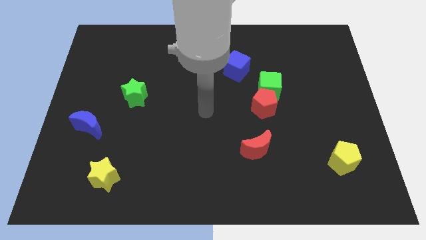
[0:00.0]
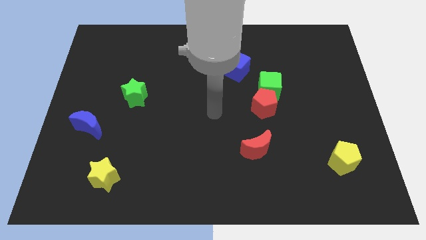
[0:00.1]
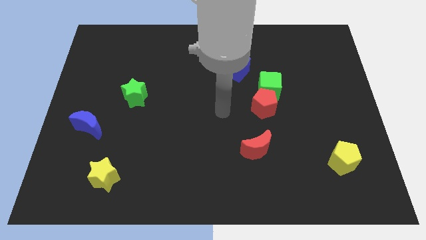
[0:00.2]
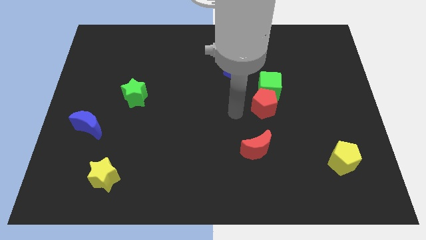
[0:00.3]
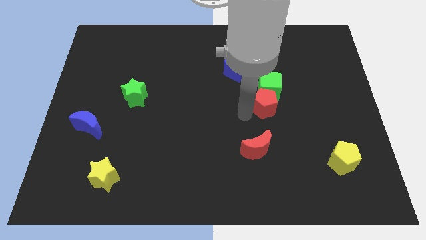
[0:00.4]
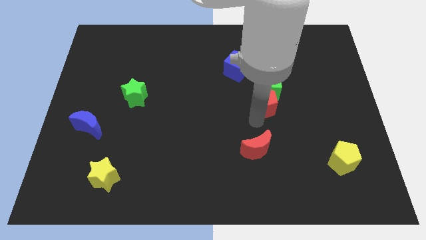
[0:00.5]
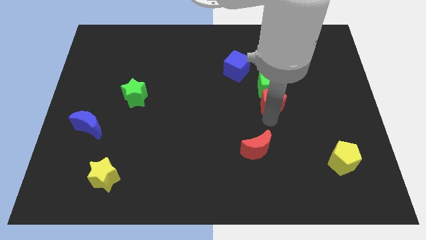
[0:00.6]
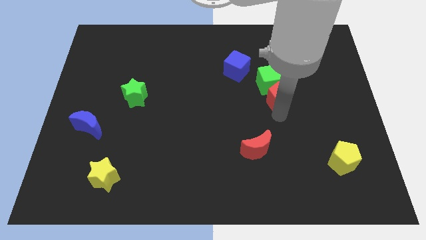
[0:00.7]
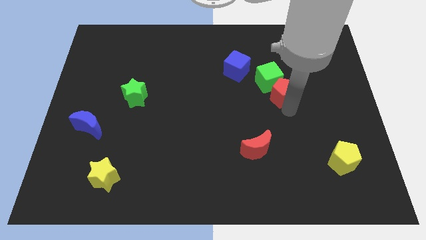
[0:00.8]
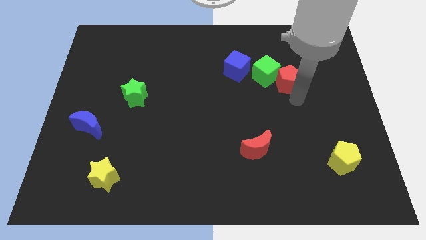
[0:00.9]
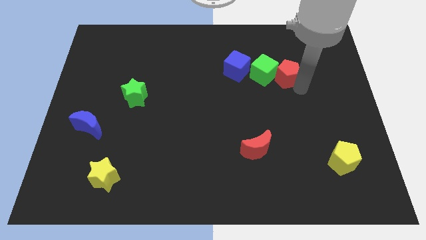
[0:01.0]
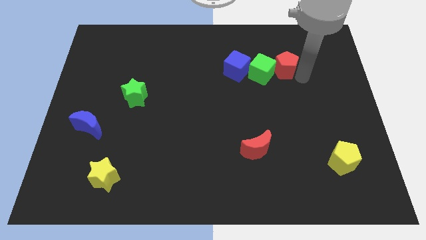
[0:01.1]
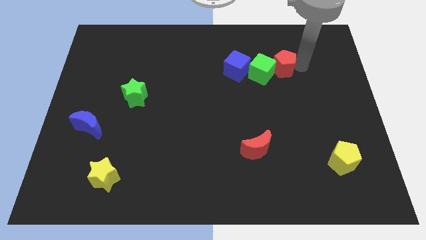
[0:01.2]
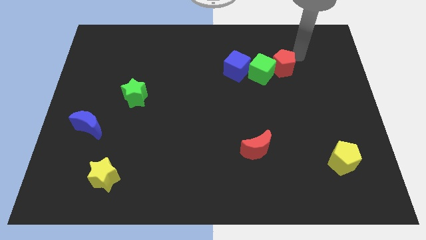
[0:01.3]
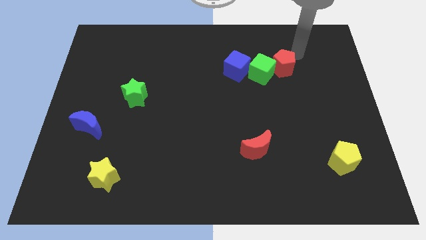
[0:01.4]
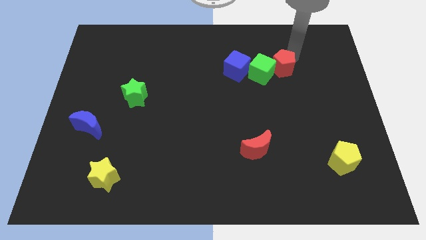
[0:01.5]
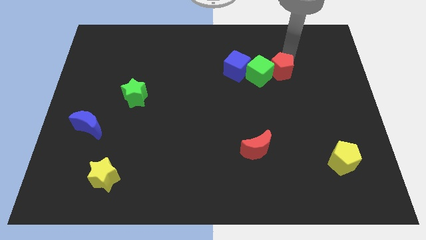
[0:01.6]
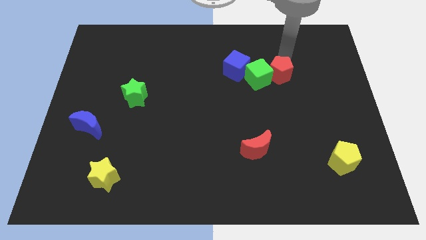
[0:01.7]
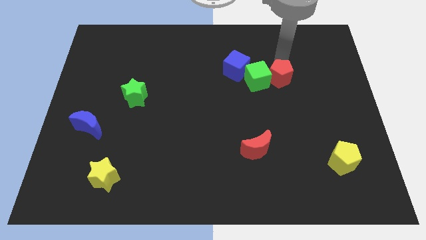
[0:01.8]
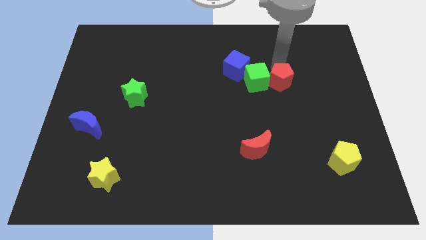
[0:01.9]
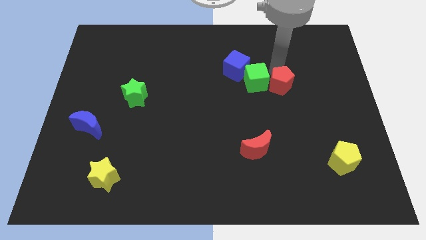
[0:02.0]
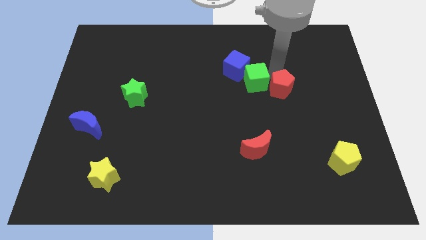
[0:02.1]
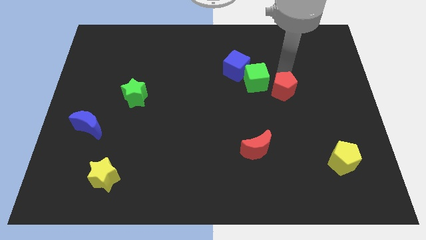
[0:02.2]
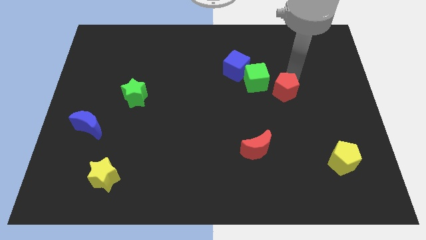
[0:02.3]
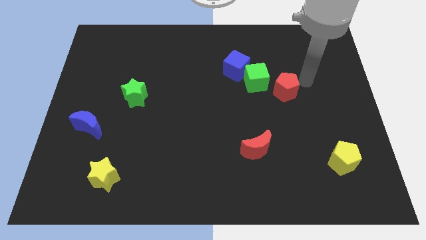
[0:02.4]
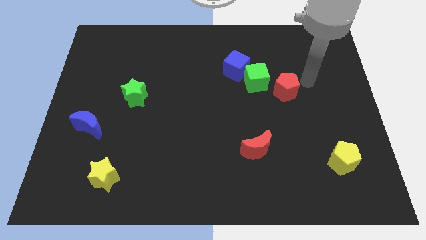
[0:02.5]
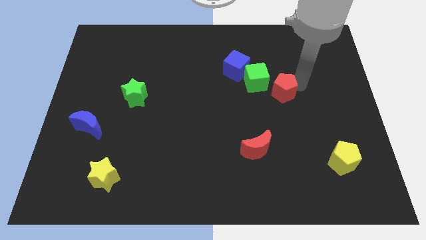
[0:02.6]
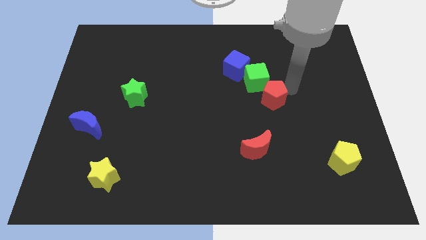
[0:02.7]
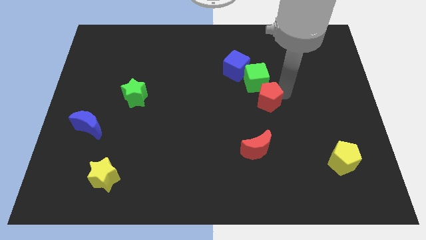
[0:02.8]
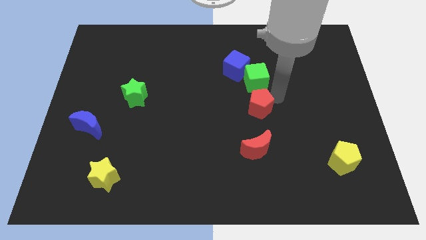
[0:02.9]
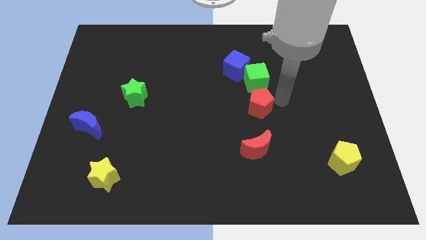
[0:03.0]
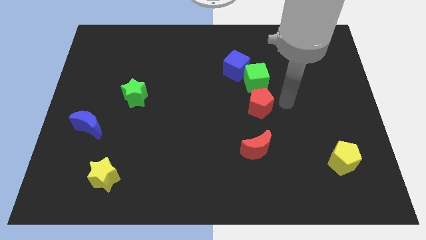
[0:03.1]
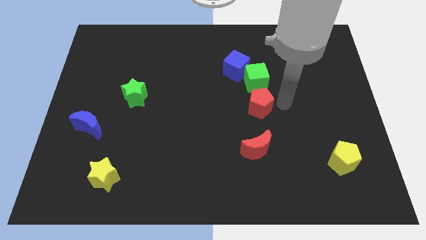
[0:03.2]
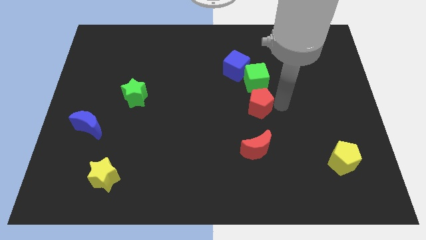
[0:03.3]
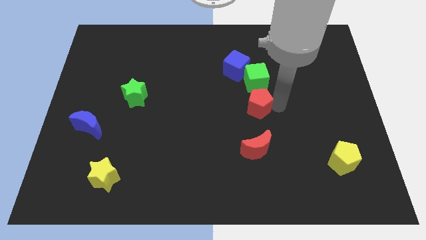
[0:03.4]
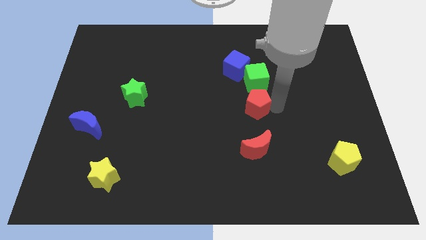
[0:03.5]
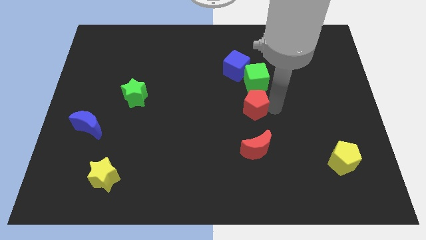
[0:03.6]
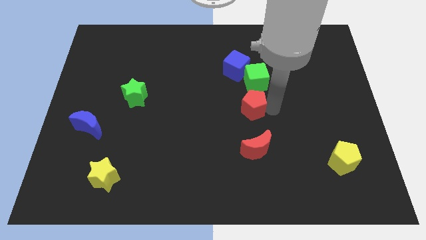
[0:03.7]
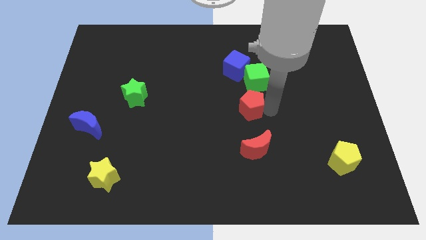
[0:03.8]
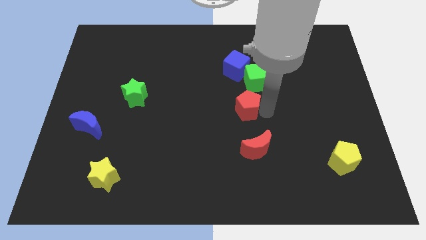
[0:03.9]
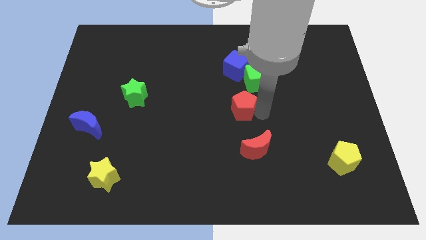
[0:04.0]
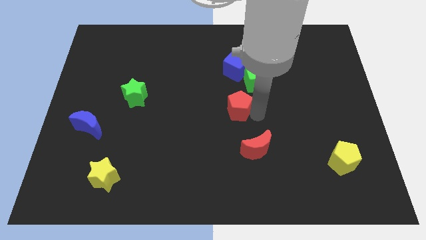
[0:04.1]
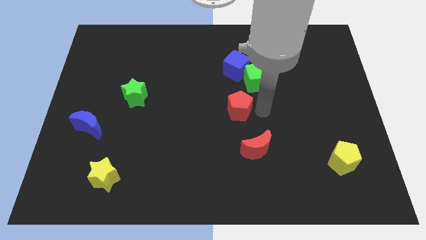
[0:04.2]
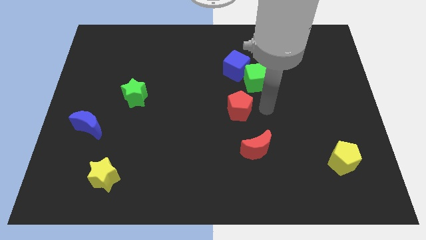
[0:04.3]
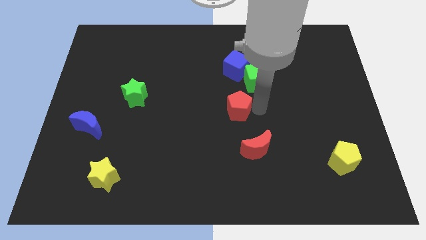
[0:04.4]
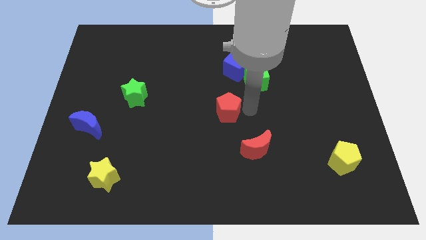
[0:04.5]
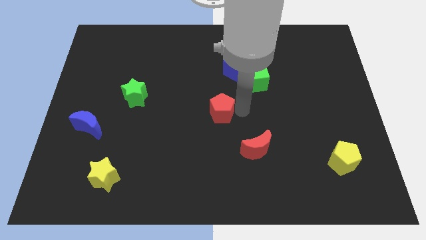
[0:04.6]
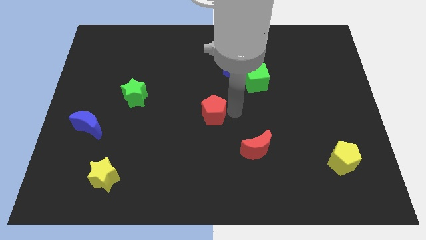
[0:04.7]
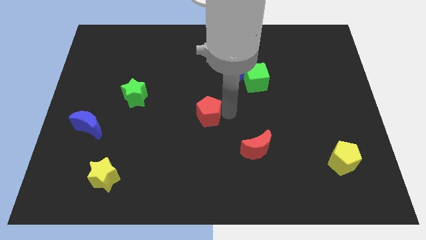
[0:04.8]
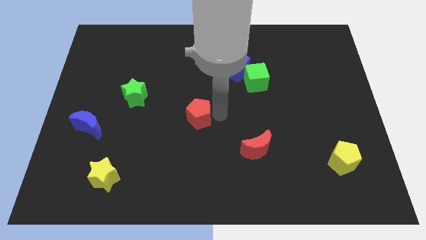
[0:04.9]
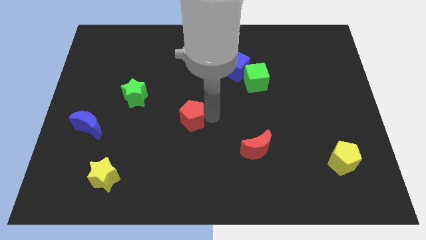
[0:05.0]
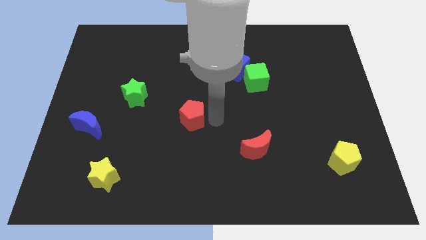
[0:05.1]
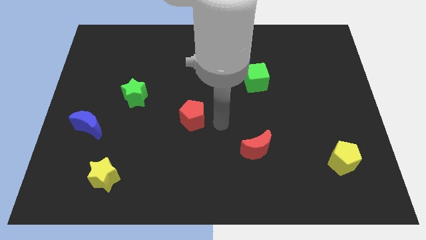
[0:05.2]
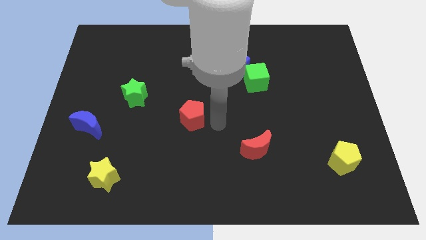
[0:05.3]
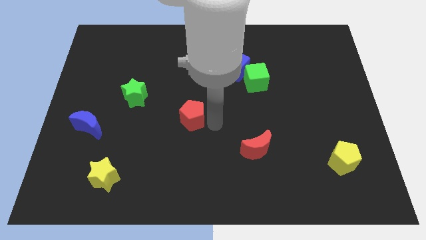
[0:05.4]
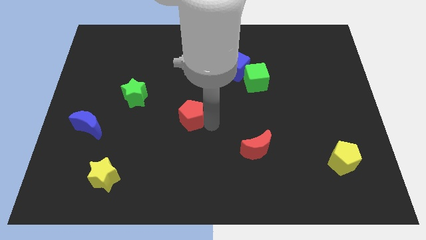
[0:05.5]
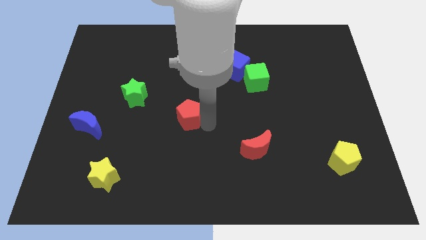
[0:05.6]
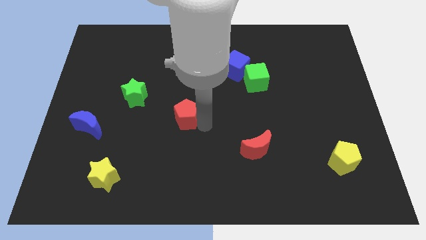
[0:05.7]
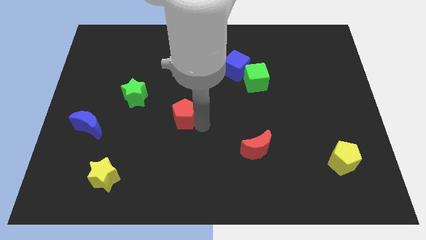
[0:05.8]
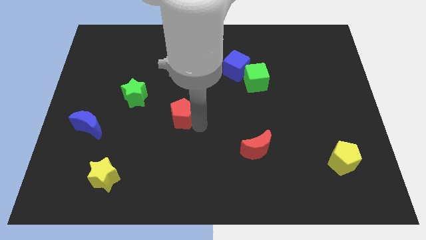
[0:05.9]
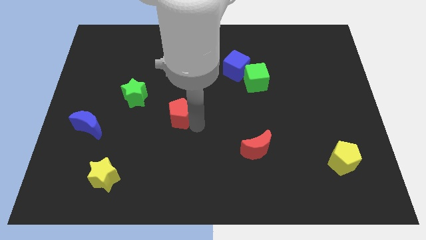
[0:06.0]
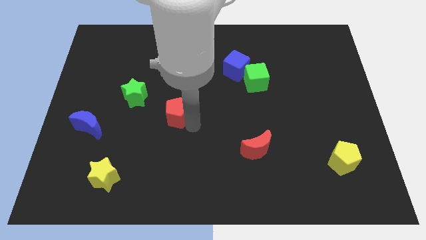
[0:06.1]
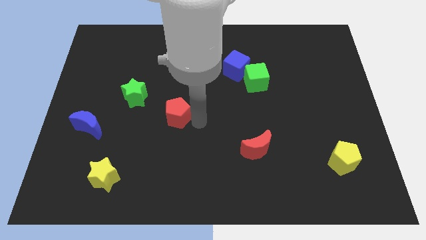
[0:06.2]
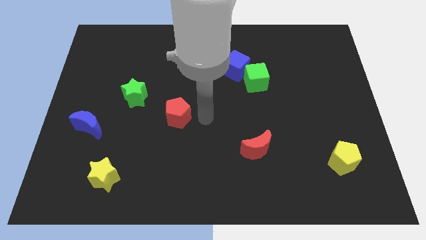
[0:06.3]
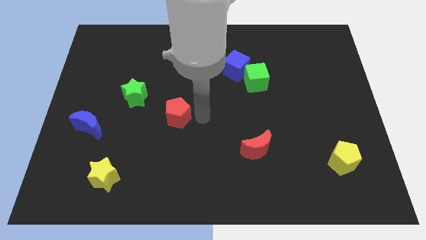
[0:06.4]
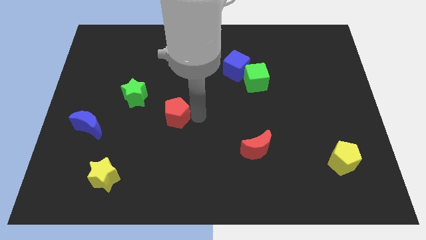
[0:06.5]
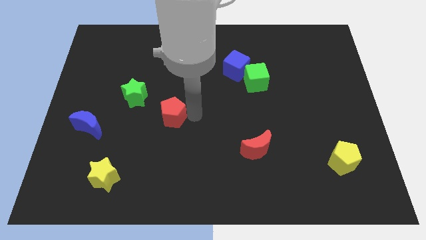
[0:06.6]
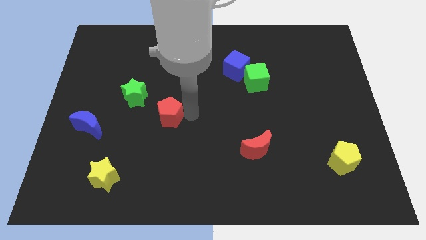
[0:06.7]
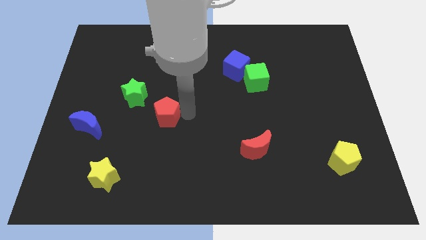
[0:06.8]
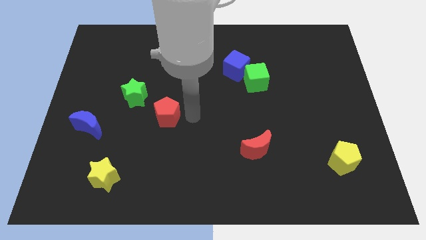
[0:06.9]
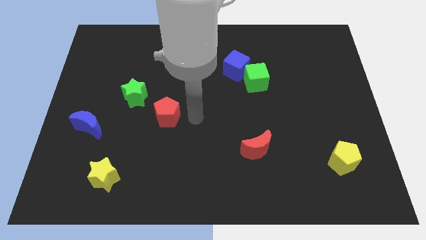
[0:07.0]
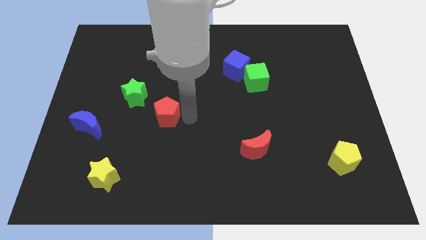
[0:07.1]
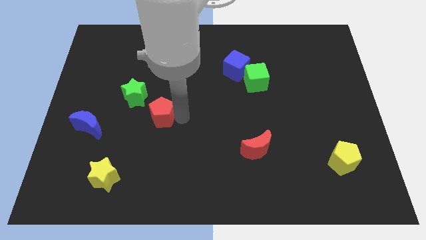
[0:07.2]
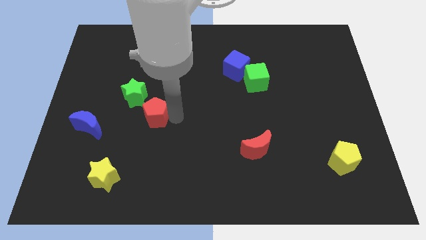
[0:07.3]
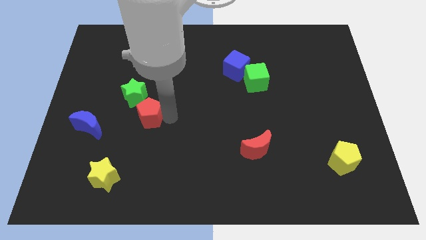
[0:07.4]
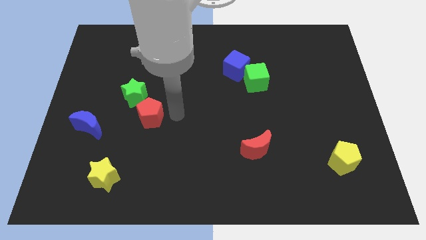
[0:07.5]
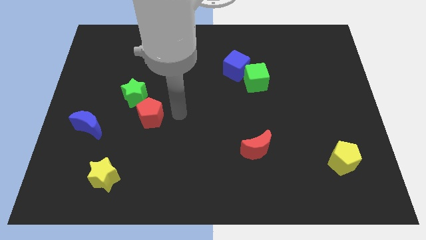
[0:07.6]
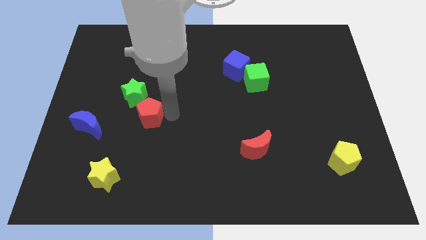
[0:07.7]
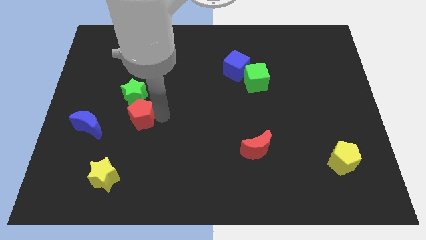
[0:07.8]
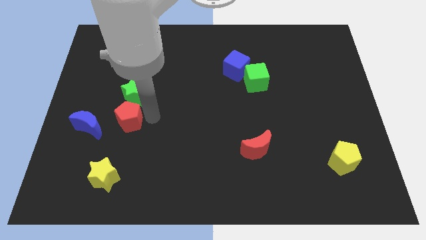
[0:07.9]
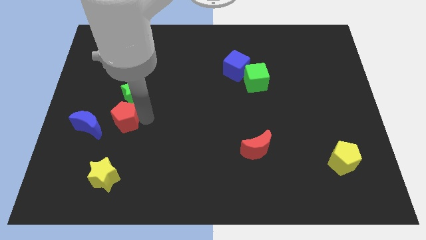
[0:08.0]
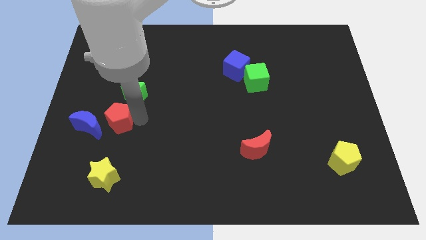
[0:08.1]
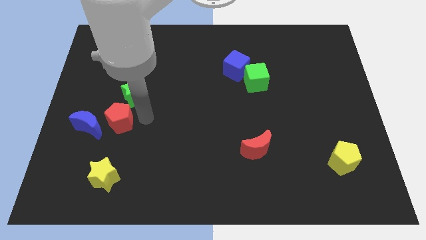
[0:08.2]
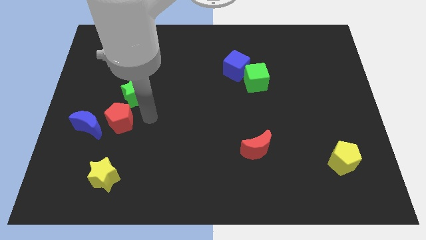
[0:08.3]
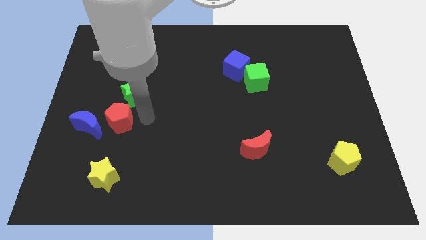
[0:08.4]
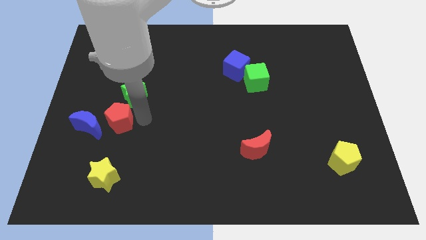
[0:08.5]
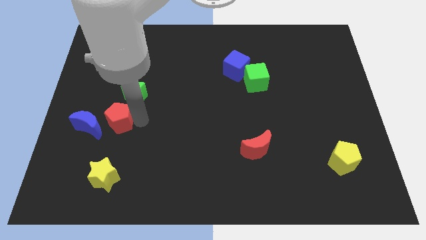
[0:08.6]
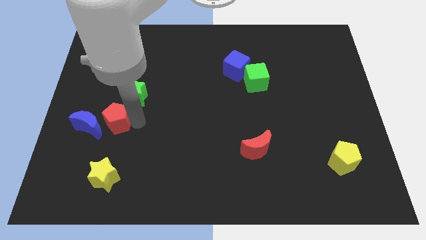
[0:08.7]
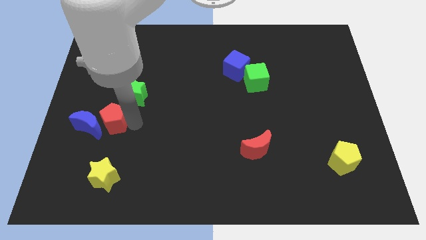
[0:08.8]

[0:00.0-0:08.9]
move the red pentagon to the blue moon
